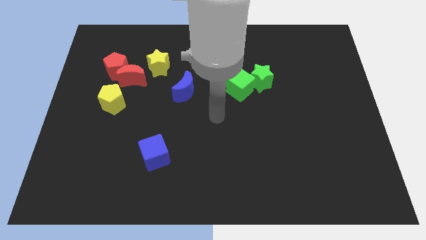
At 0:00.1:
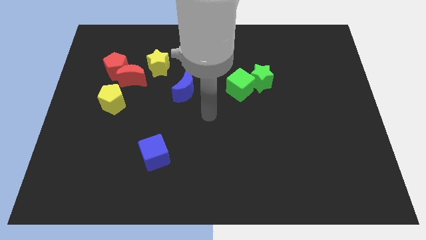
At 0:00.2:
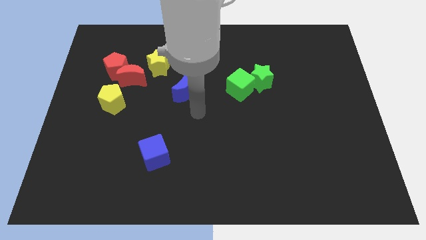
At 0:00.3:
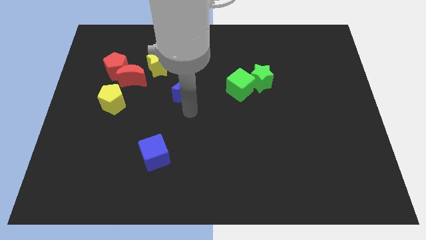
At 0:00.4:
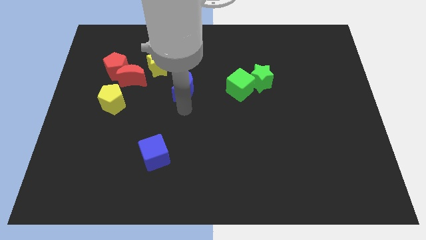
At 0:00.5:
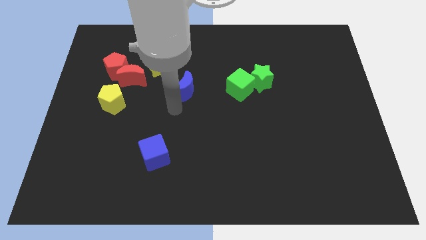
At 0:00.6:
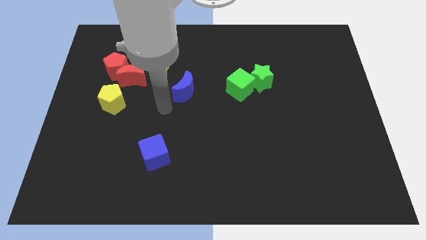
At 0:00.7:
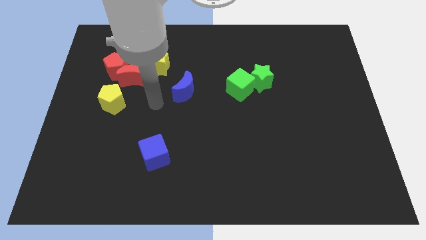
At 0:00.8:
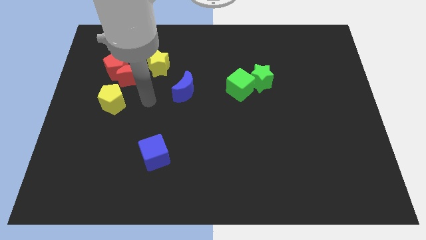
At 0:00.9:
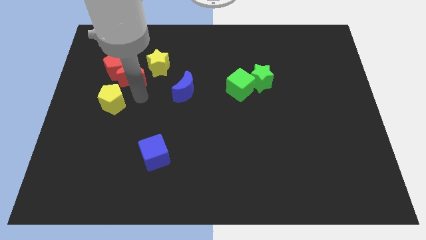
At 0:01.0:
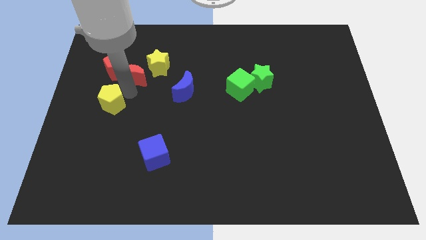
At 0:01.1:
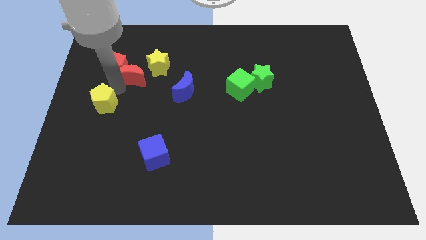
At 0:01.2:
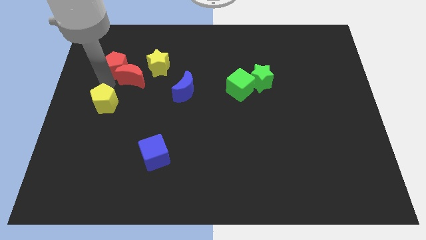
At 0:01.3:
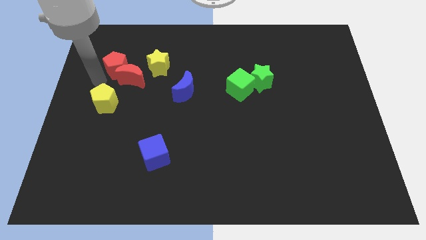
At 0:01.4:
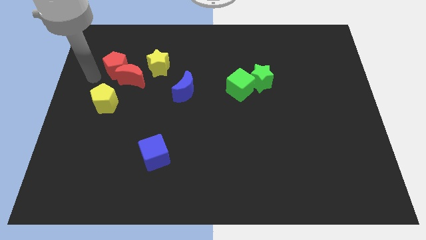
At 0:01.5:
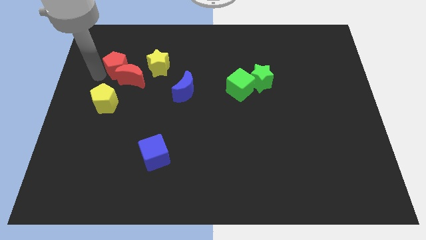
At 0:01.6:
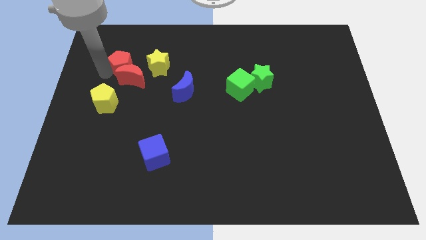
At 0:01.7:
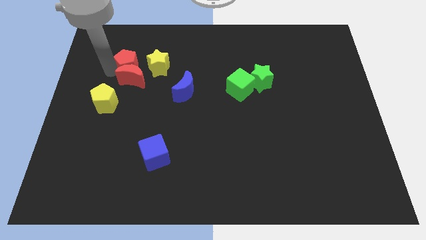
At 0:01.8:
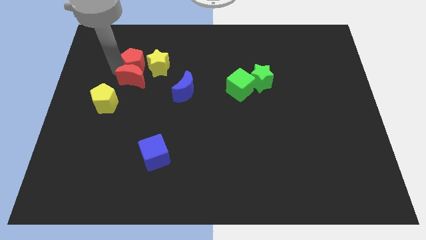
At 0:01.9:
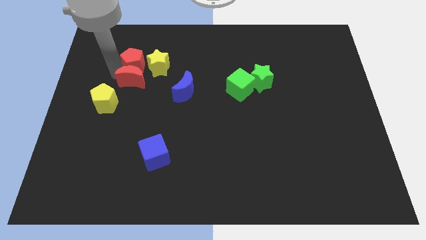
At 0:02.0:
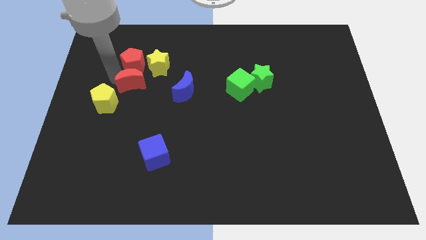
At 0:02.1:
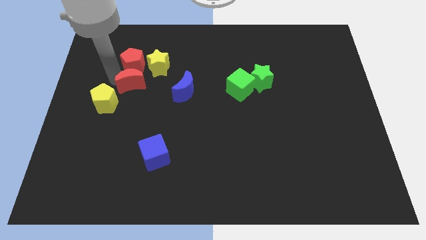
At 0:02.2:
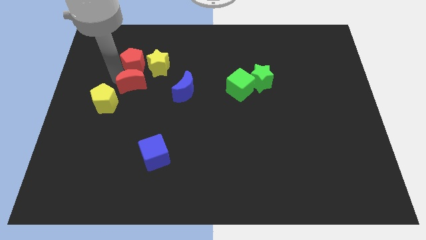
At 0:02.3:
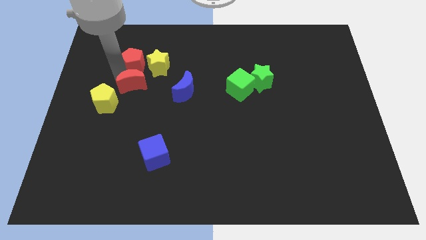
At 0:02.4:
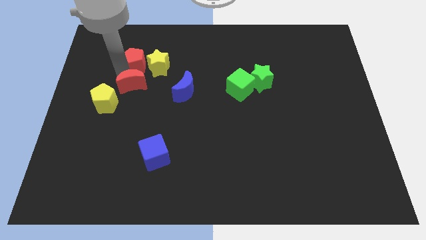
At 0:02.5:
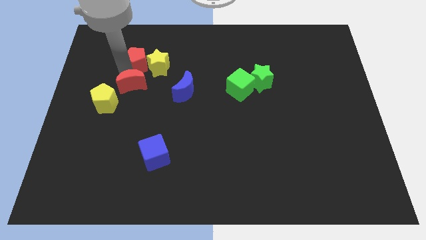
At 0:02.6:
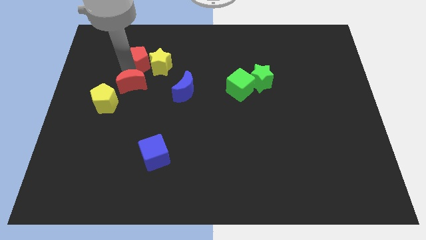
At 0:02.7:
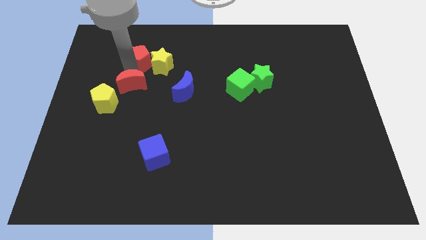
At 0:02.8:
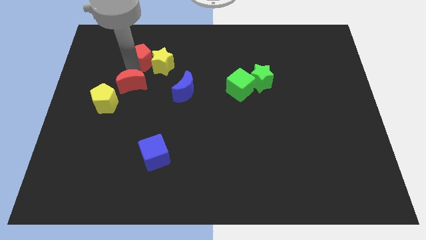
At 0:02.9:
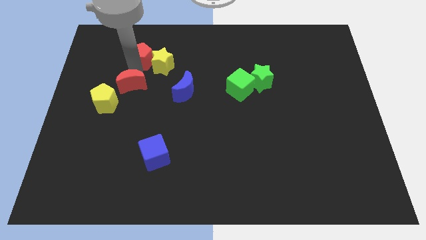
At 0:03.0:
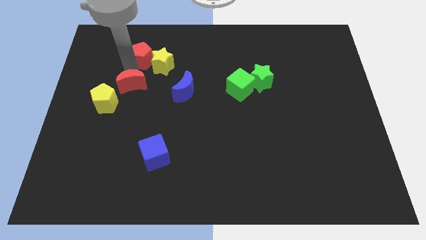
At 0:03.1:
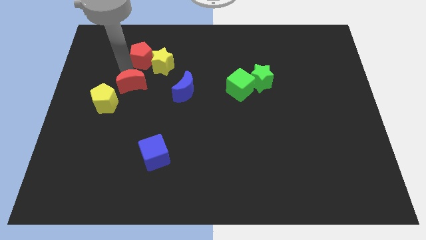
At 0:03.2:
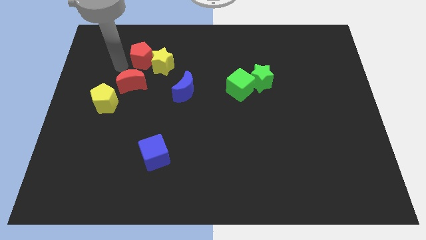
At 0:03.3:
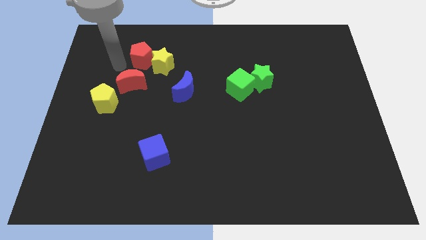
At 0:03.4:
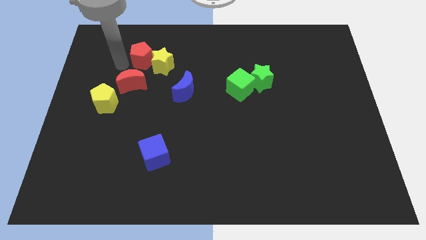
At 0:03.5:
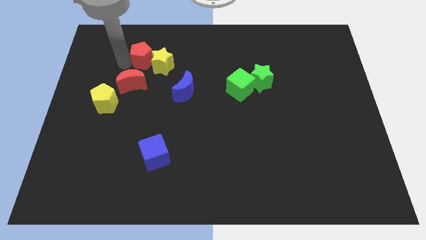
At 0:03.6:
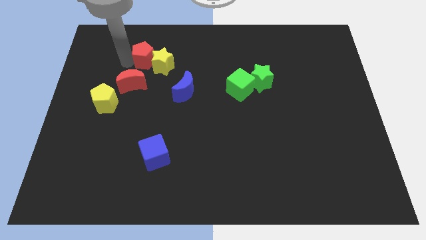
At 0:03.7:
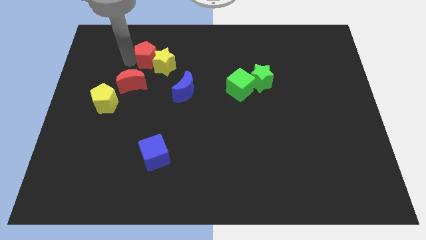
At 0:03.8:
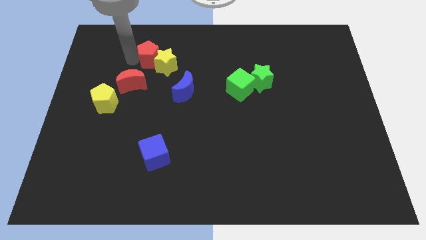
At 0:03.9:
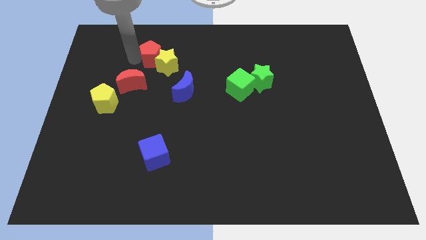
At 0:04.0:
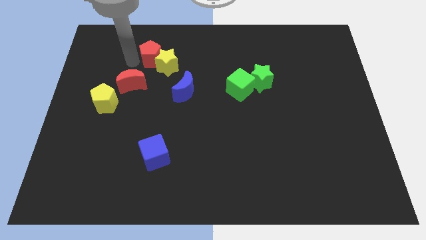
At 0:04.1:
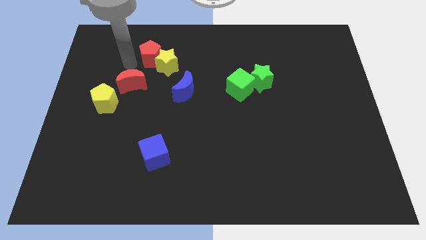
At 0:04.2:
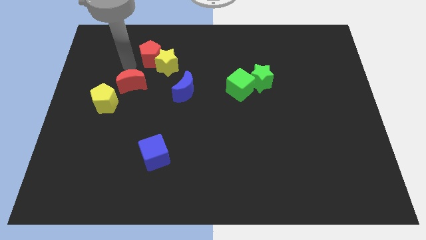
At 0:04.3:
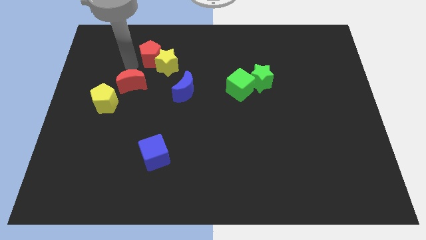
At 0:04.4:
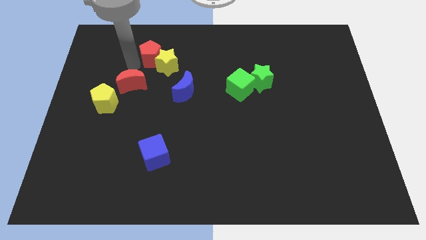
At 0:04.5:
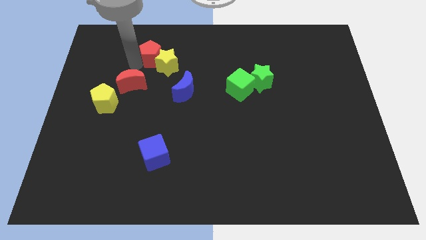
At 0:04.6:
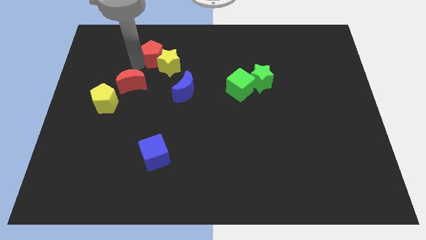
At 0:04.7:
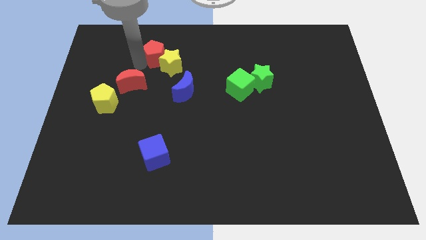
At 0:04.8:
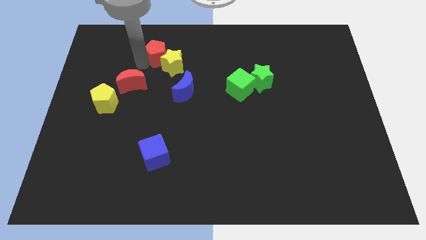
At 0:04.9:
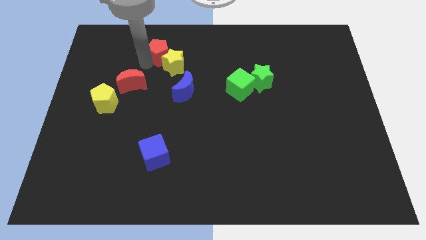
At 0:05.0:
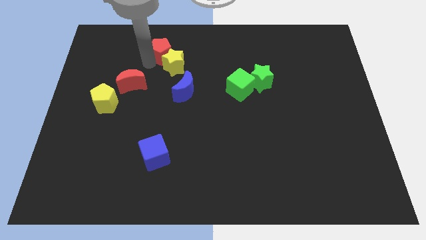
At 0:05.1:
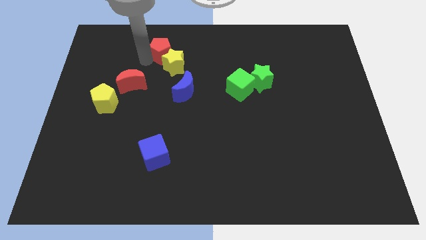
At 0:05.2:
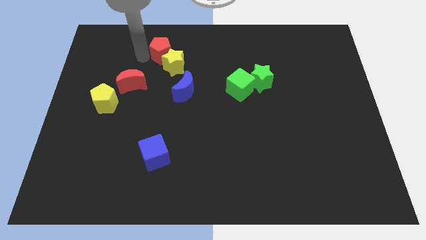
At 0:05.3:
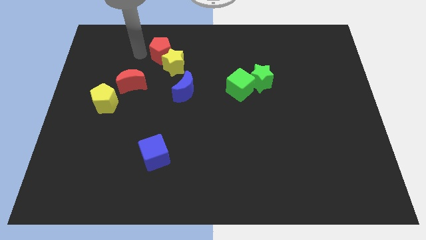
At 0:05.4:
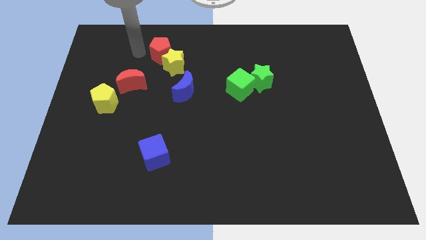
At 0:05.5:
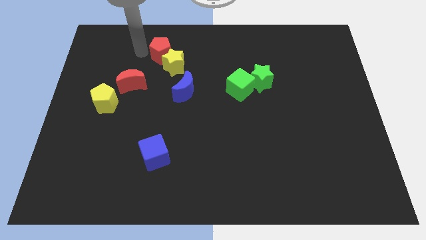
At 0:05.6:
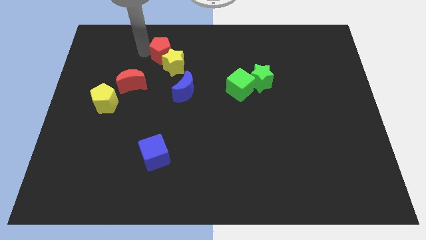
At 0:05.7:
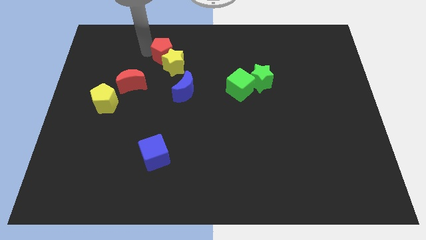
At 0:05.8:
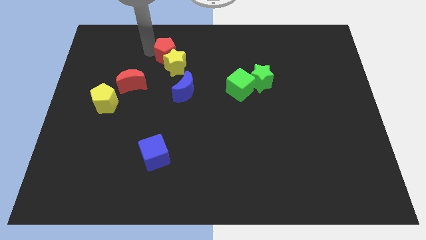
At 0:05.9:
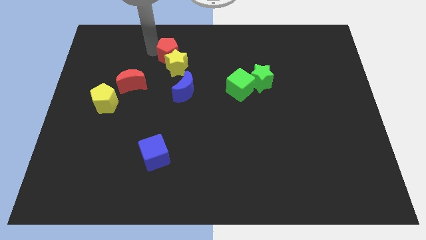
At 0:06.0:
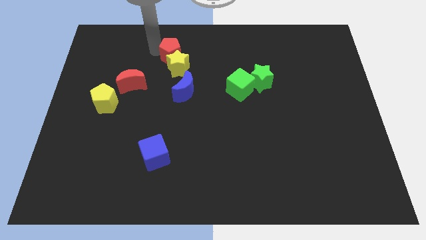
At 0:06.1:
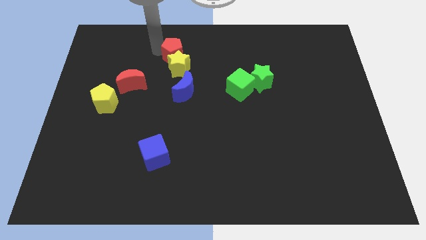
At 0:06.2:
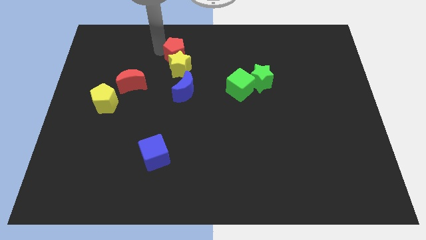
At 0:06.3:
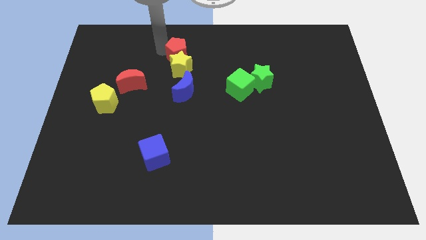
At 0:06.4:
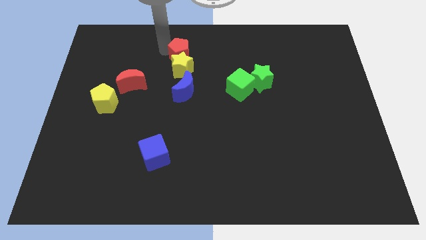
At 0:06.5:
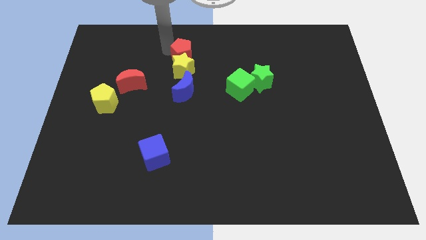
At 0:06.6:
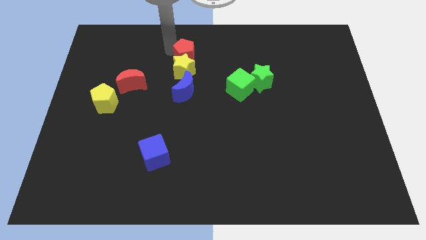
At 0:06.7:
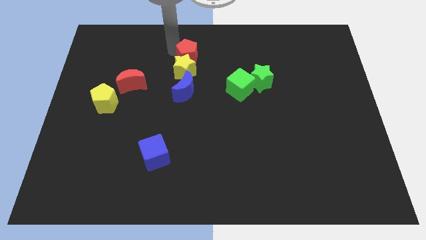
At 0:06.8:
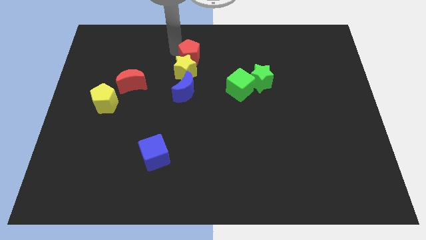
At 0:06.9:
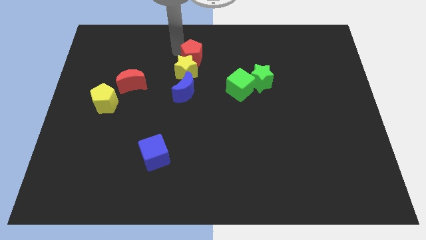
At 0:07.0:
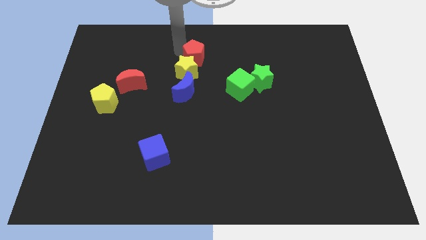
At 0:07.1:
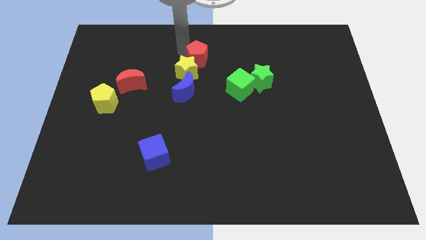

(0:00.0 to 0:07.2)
move the red pentagon right

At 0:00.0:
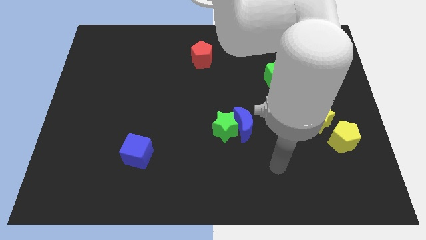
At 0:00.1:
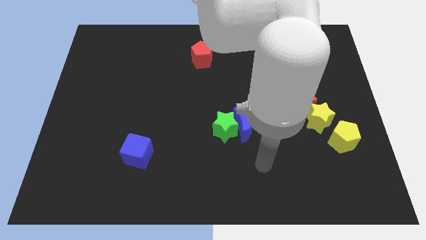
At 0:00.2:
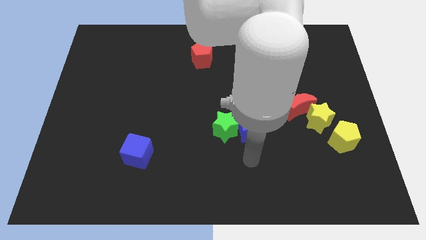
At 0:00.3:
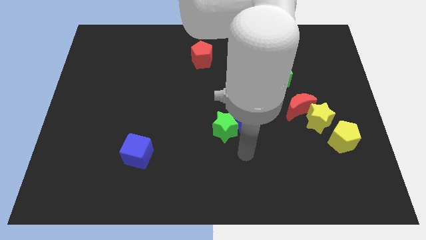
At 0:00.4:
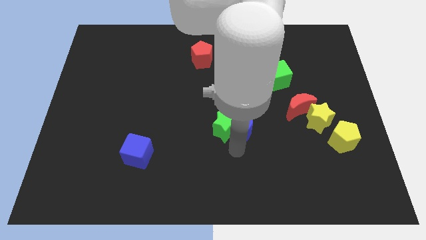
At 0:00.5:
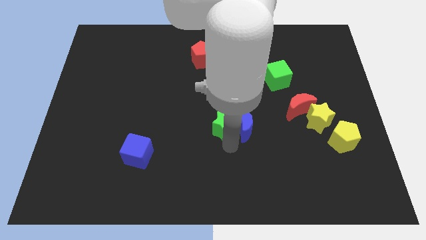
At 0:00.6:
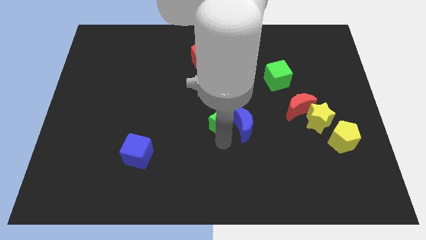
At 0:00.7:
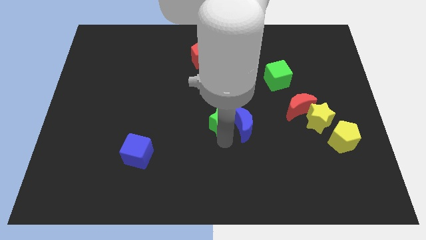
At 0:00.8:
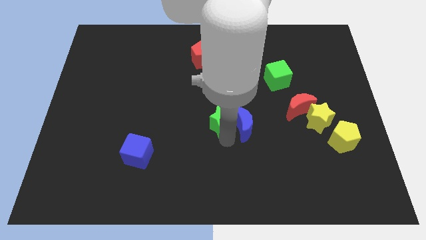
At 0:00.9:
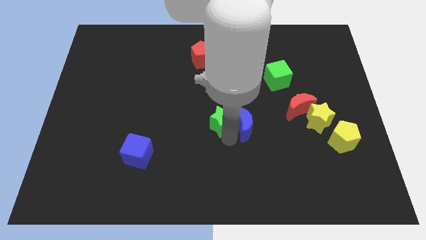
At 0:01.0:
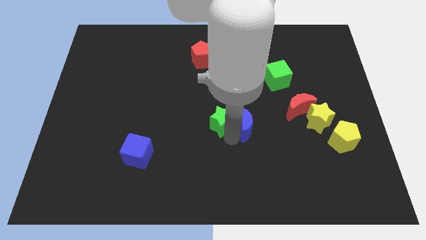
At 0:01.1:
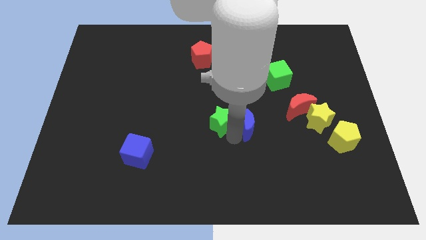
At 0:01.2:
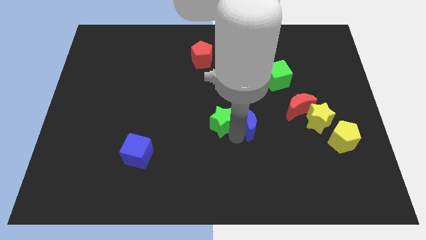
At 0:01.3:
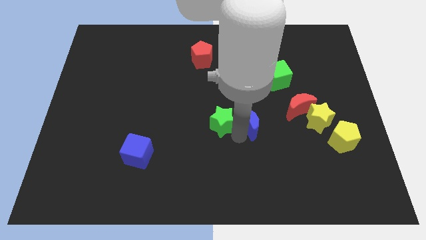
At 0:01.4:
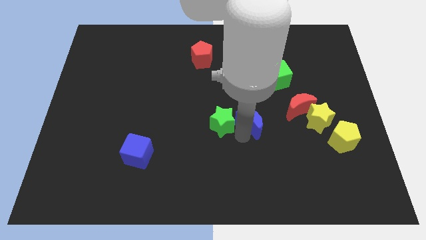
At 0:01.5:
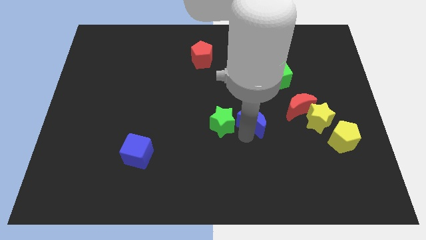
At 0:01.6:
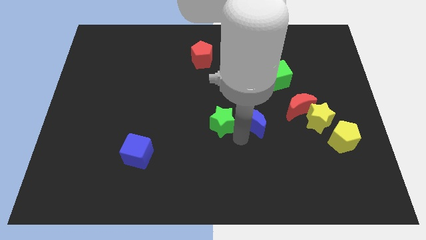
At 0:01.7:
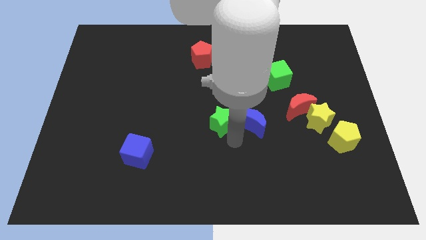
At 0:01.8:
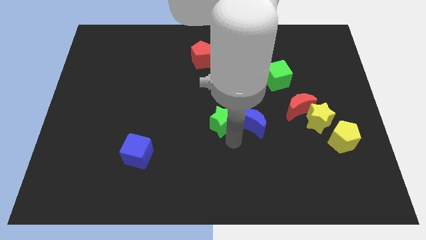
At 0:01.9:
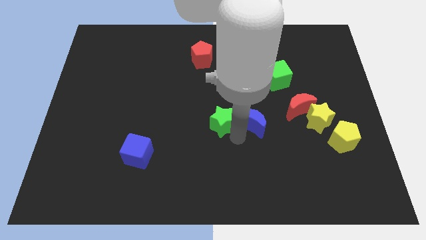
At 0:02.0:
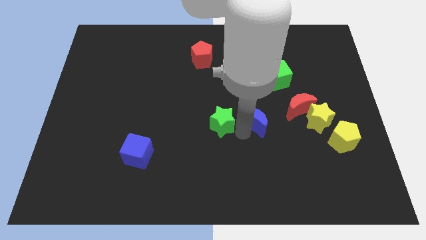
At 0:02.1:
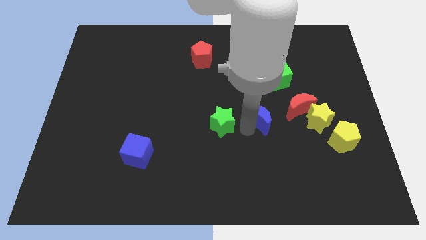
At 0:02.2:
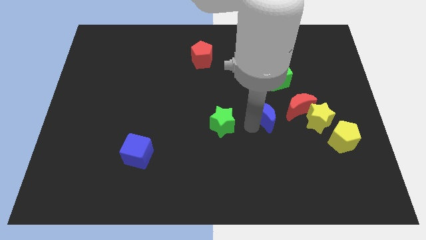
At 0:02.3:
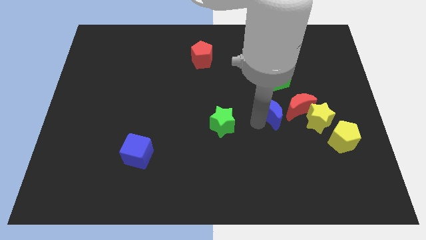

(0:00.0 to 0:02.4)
slightly slide the blue moon up and right
